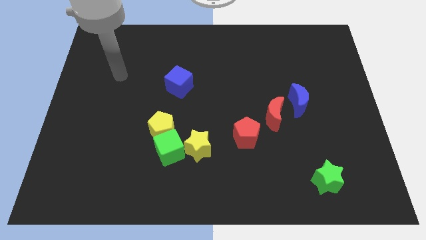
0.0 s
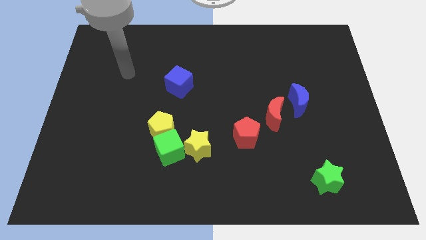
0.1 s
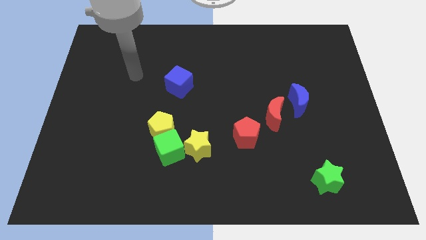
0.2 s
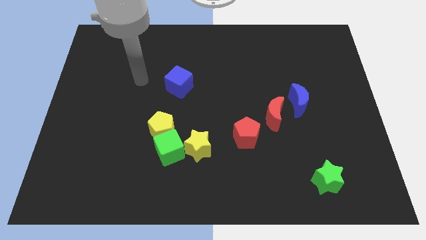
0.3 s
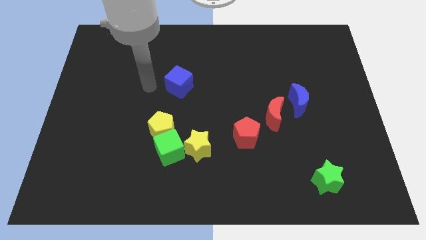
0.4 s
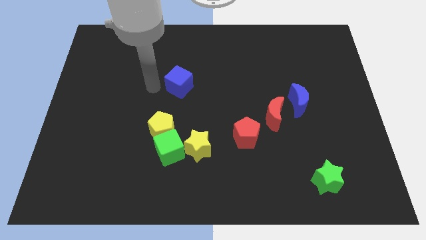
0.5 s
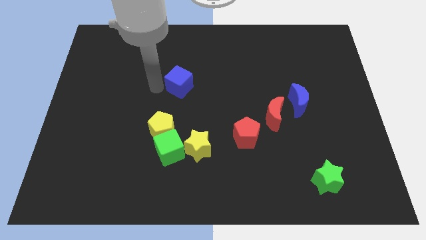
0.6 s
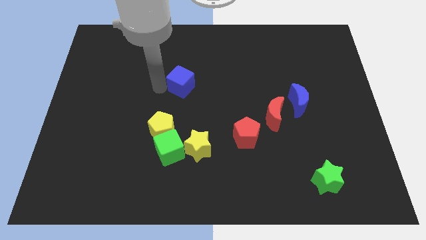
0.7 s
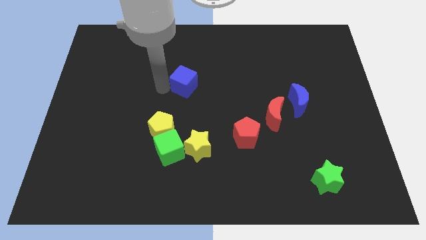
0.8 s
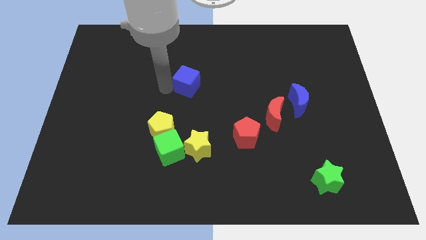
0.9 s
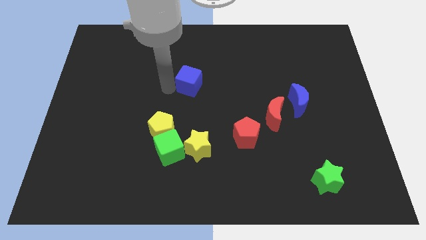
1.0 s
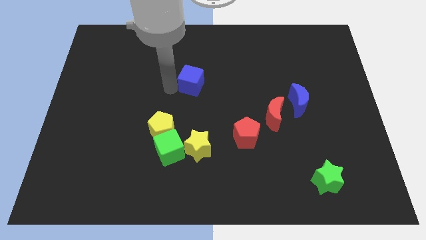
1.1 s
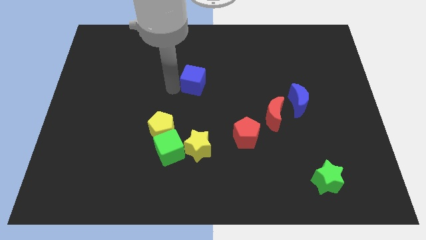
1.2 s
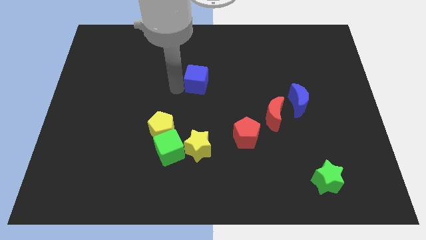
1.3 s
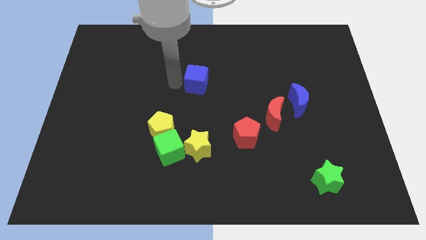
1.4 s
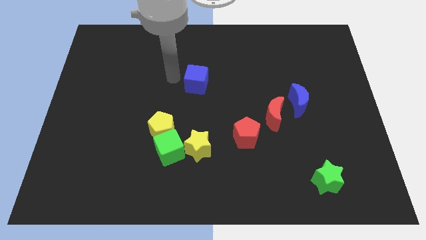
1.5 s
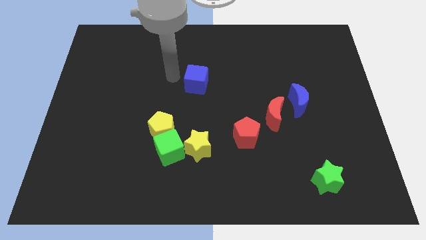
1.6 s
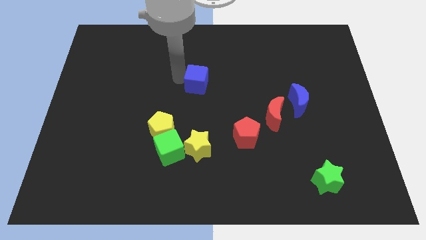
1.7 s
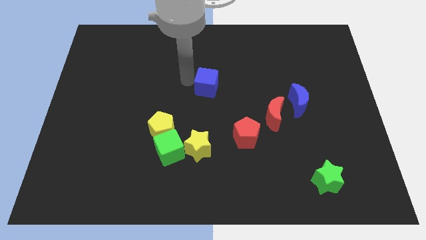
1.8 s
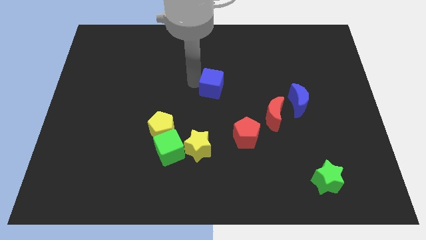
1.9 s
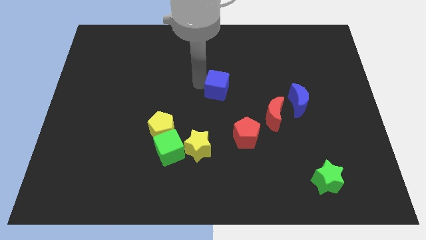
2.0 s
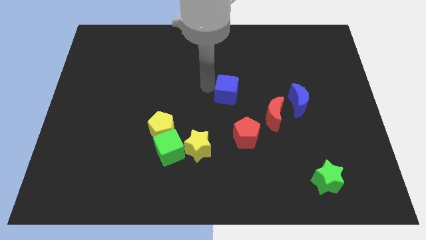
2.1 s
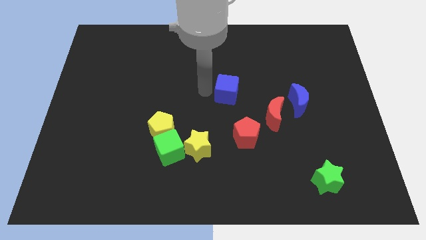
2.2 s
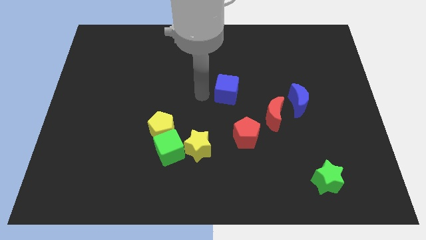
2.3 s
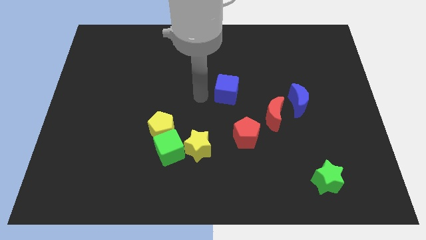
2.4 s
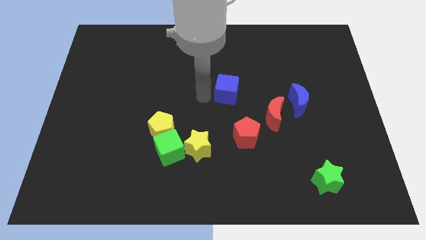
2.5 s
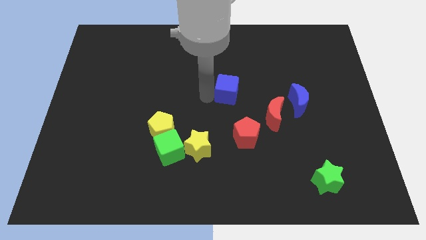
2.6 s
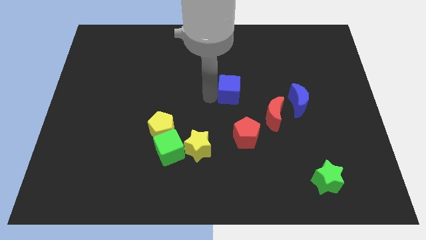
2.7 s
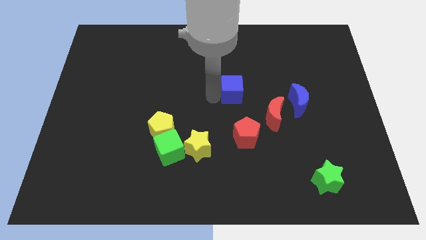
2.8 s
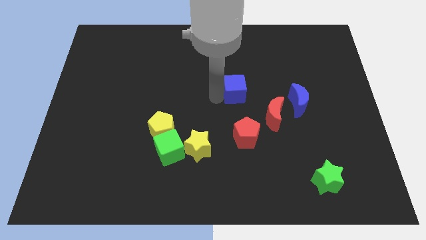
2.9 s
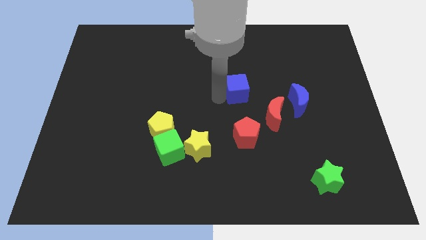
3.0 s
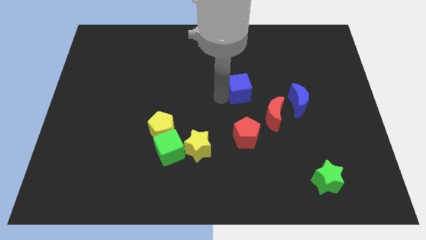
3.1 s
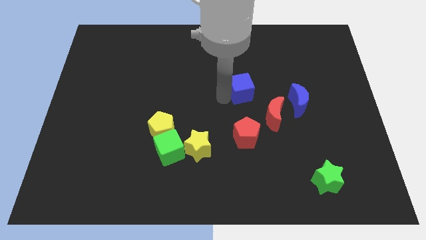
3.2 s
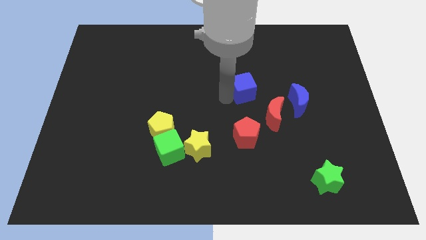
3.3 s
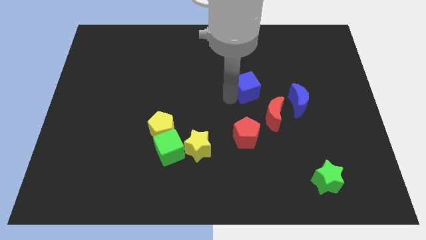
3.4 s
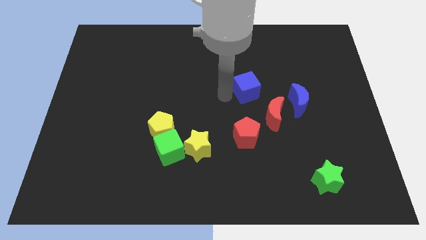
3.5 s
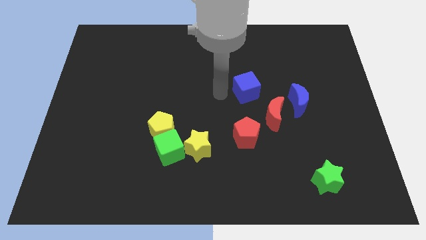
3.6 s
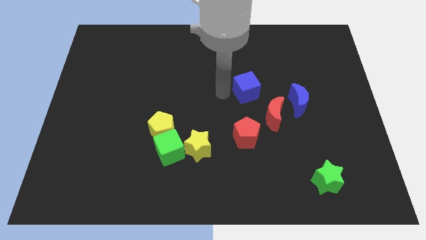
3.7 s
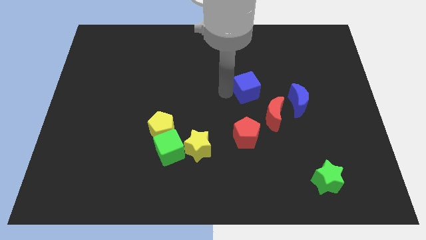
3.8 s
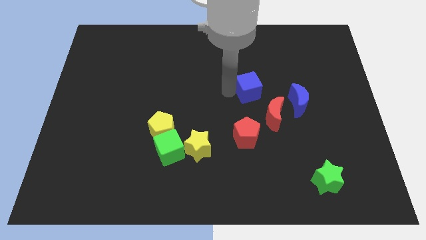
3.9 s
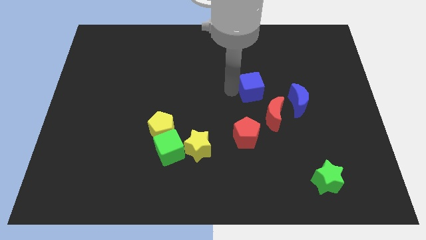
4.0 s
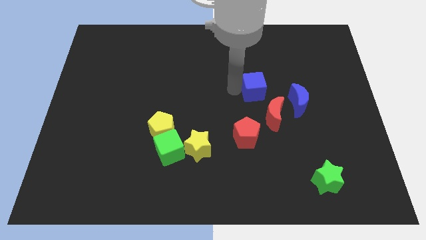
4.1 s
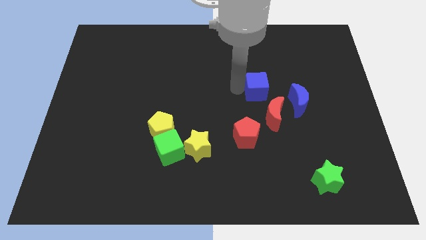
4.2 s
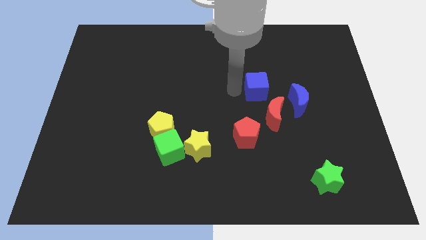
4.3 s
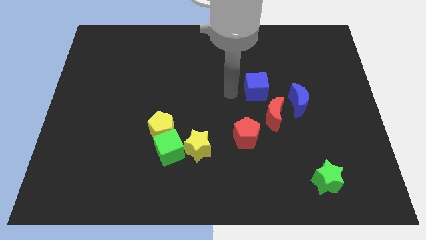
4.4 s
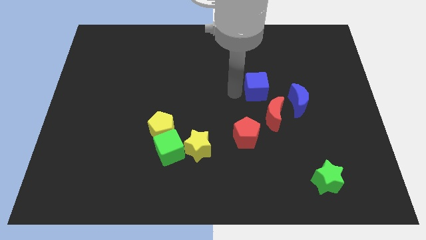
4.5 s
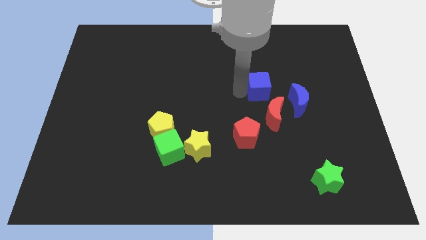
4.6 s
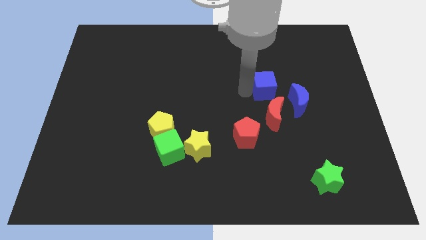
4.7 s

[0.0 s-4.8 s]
slide the blue cube right

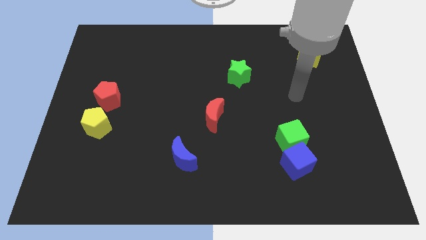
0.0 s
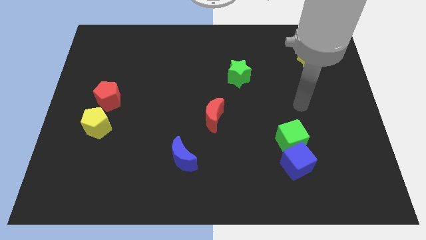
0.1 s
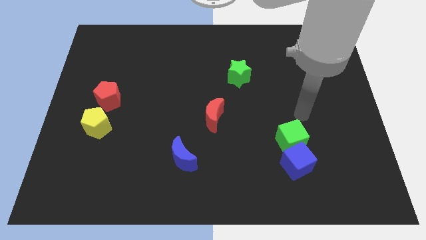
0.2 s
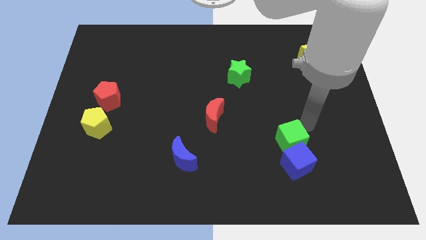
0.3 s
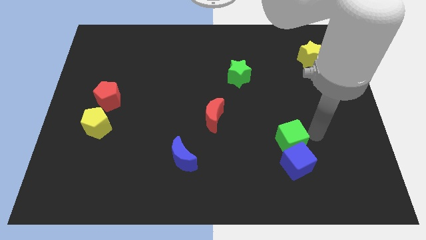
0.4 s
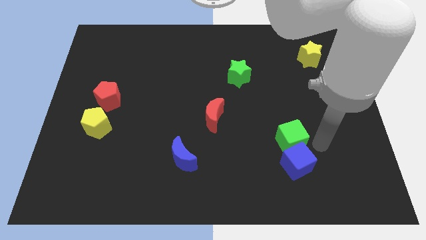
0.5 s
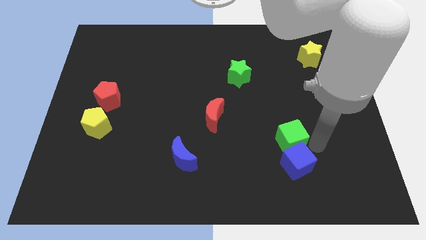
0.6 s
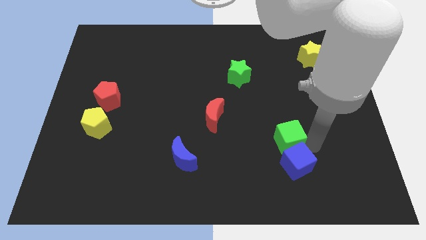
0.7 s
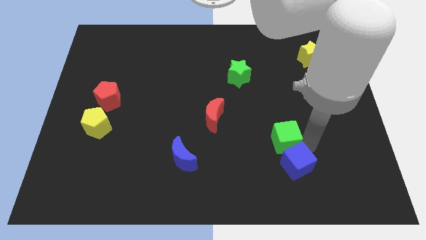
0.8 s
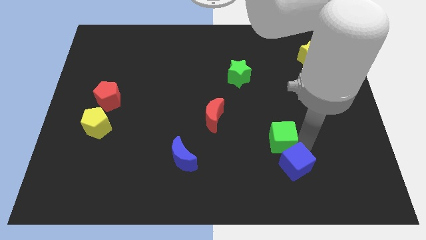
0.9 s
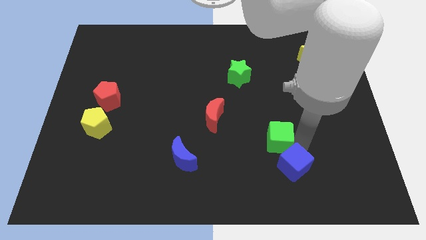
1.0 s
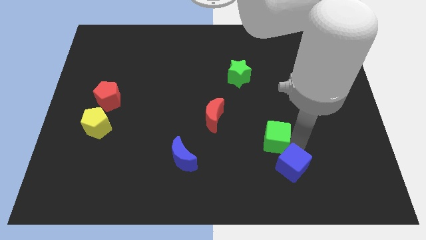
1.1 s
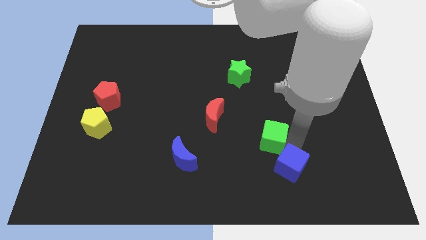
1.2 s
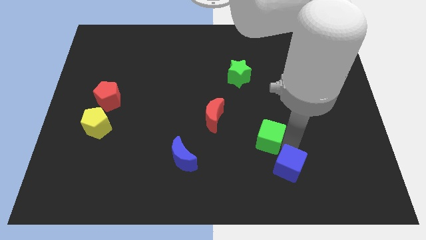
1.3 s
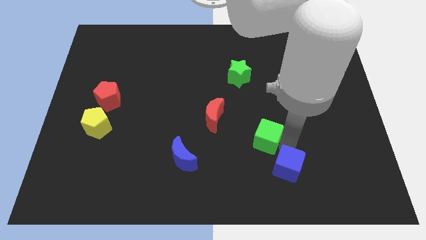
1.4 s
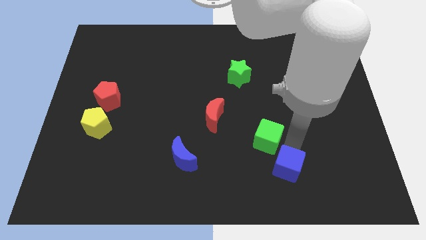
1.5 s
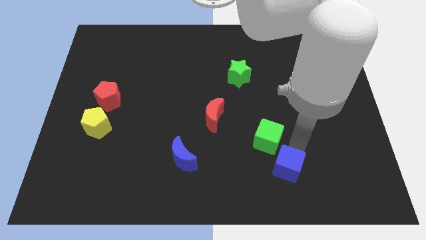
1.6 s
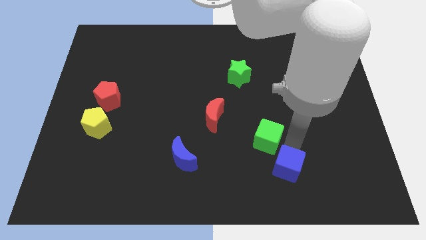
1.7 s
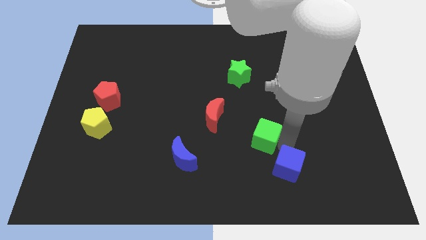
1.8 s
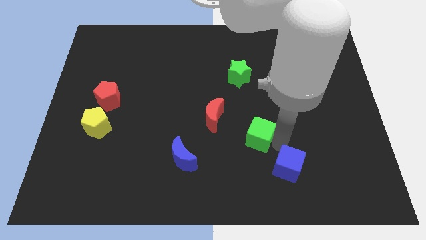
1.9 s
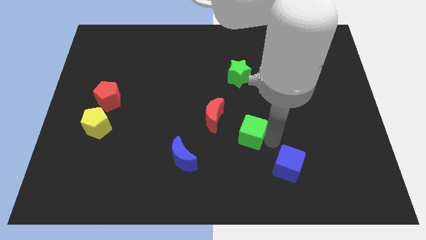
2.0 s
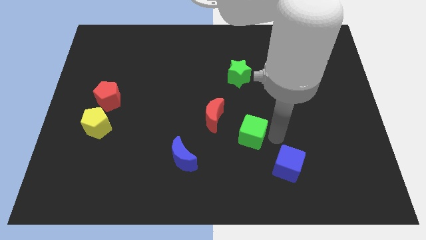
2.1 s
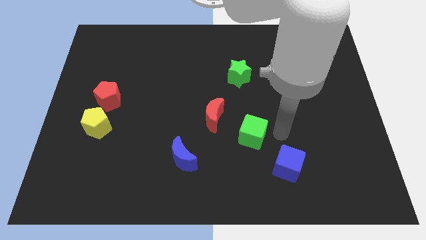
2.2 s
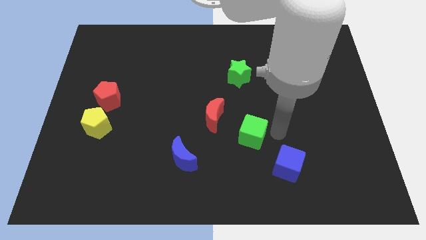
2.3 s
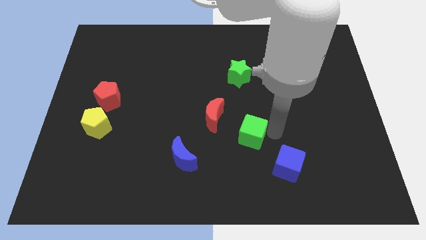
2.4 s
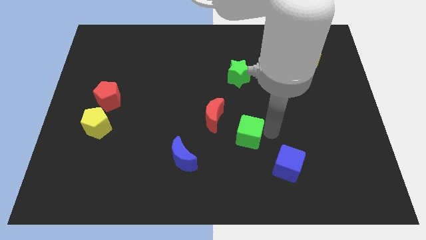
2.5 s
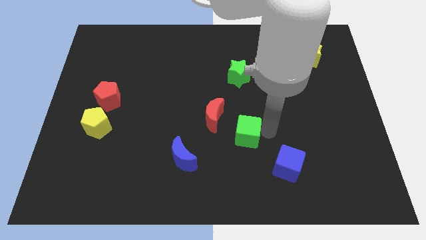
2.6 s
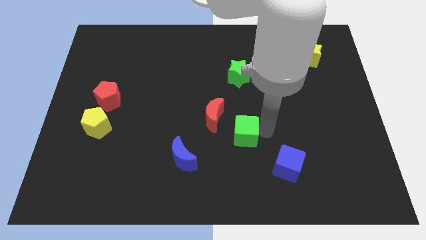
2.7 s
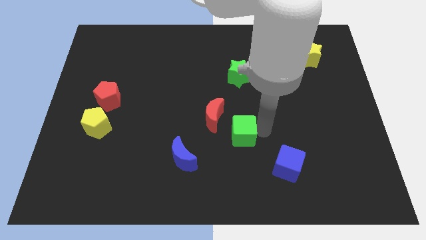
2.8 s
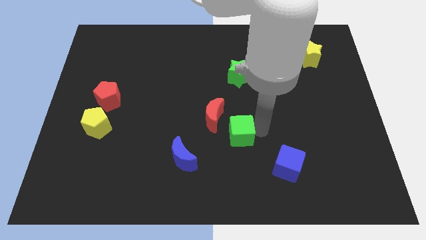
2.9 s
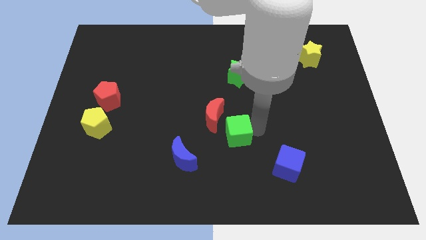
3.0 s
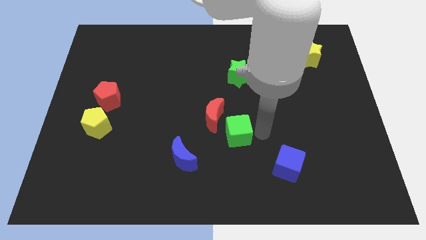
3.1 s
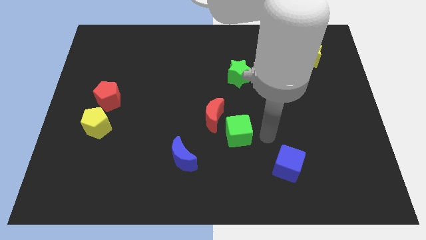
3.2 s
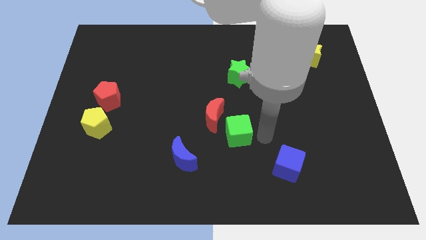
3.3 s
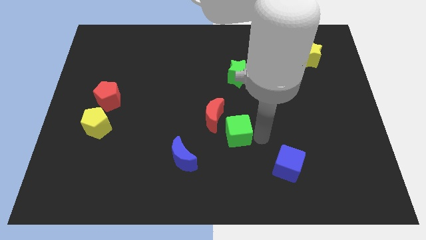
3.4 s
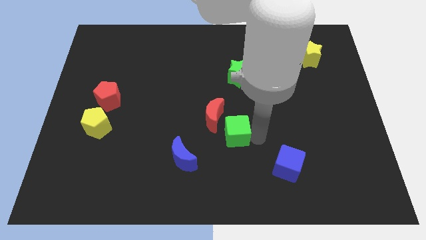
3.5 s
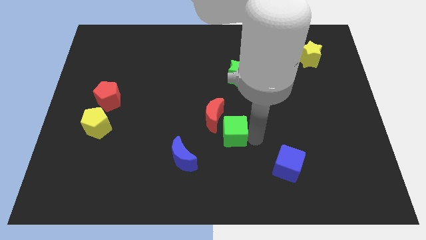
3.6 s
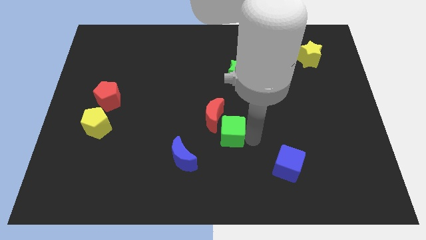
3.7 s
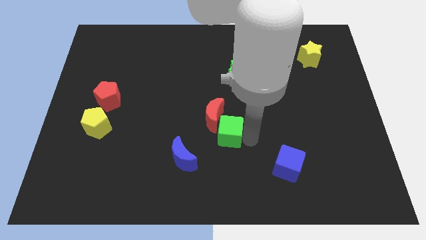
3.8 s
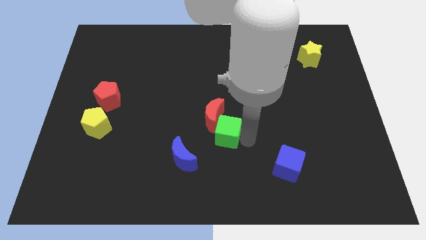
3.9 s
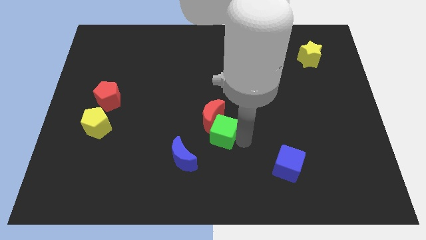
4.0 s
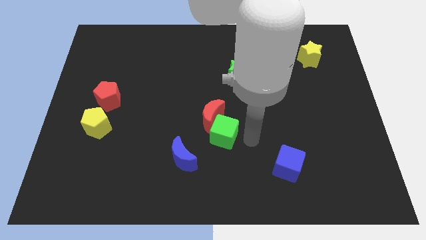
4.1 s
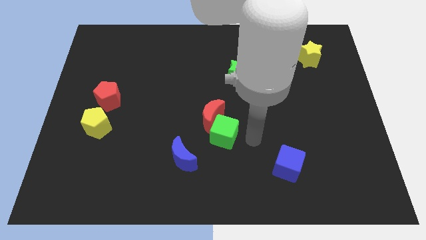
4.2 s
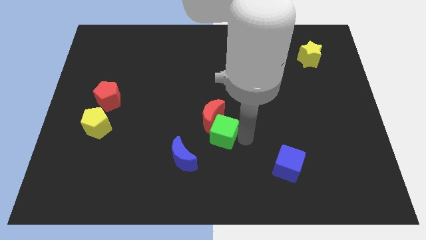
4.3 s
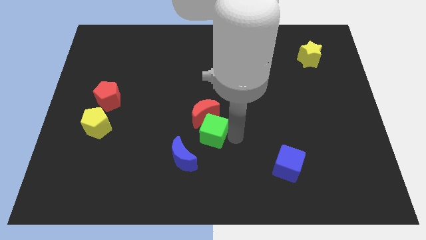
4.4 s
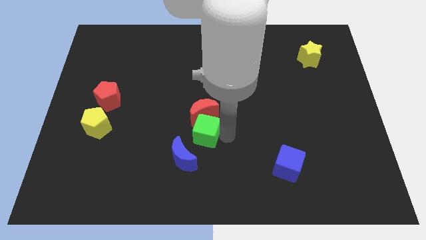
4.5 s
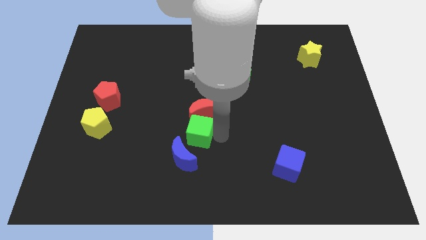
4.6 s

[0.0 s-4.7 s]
move the green cube left
